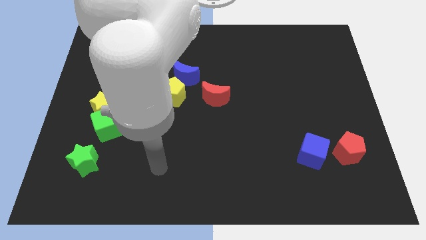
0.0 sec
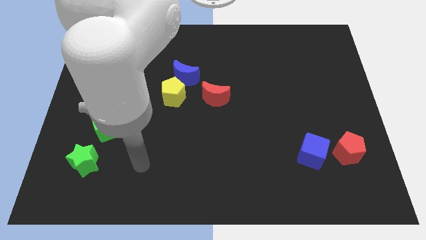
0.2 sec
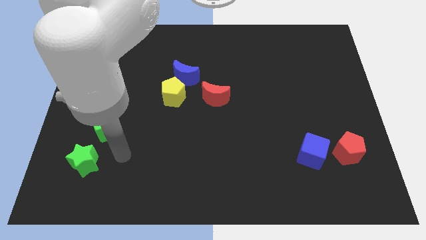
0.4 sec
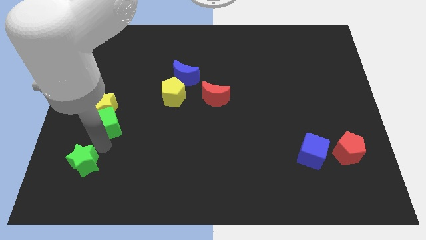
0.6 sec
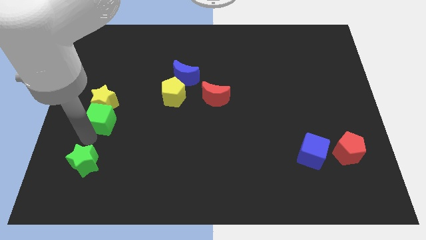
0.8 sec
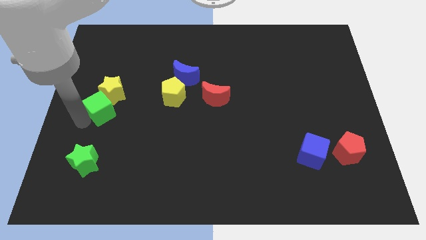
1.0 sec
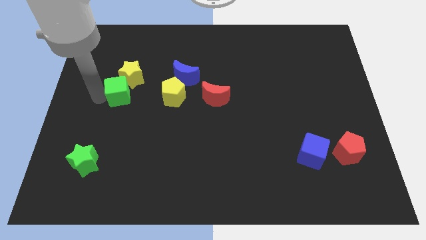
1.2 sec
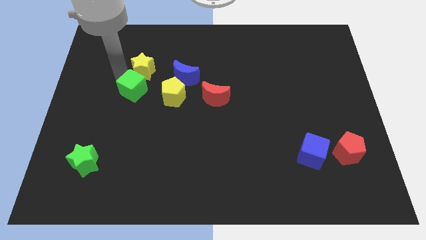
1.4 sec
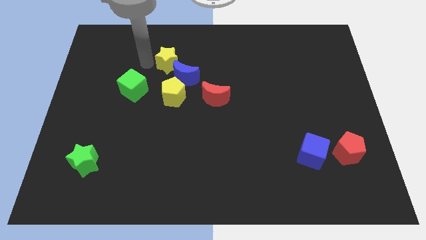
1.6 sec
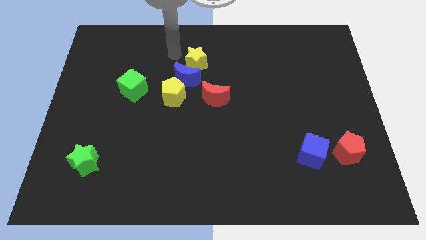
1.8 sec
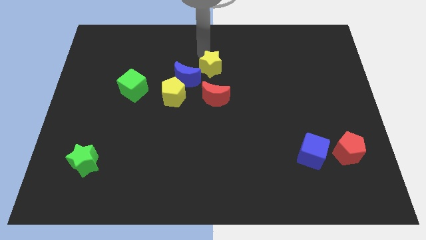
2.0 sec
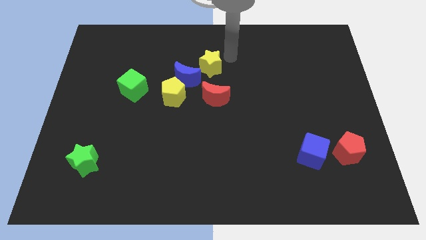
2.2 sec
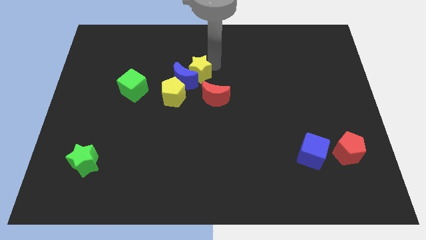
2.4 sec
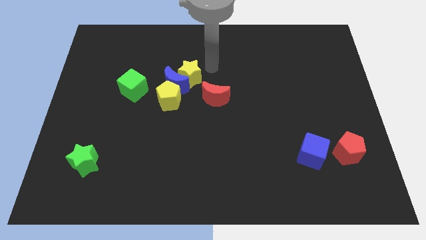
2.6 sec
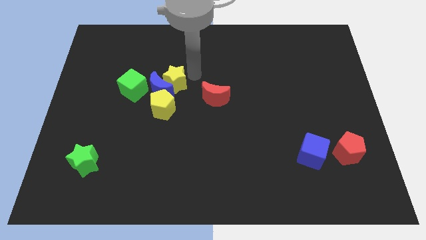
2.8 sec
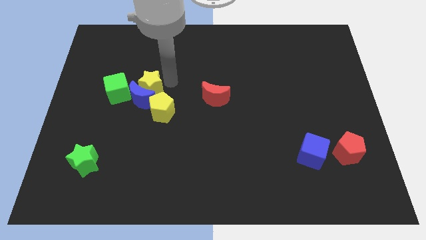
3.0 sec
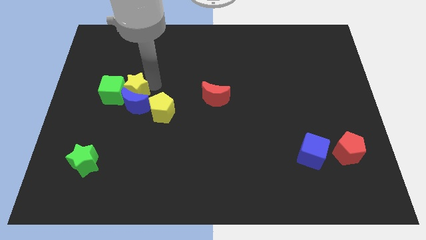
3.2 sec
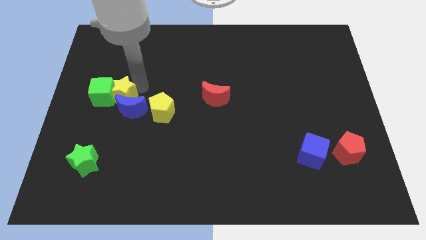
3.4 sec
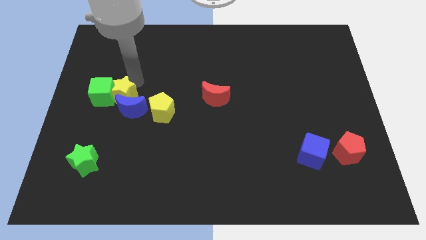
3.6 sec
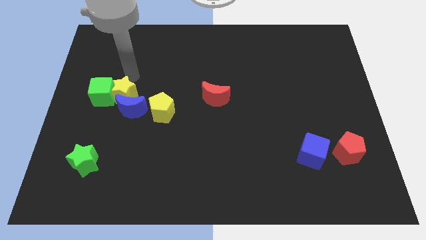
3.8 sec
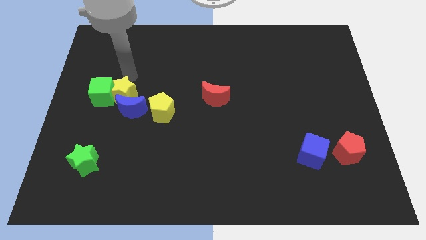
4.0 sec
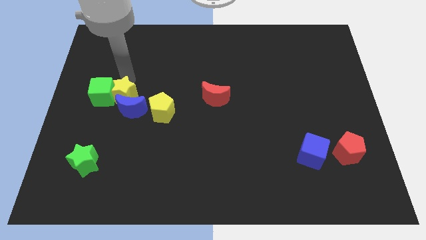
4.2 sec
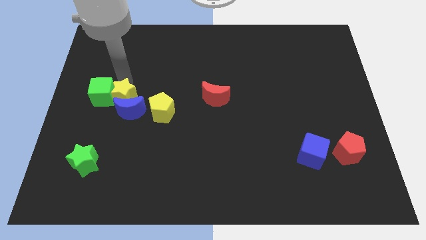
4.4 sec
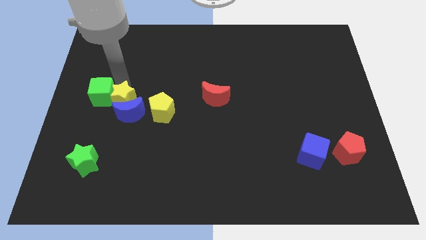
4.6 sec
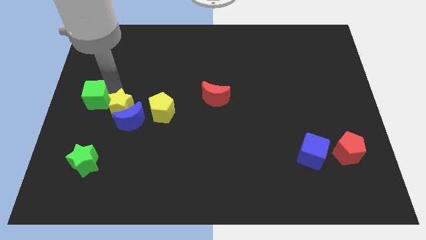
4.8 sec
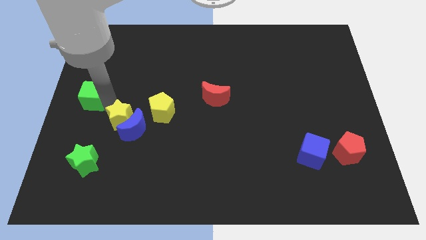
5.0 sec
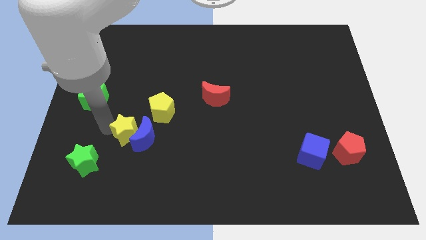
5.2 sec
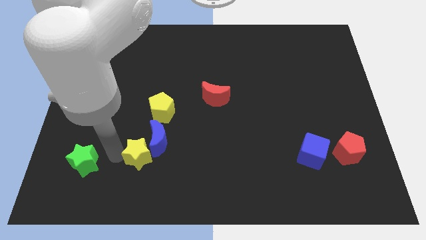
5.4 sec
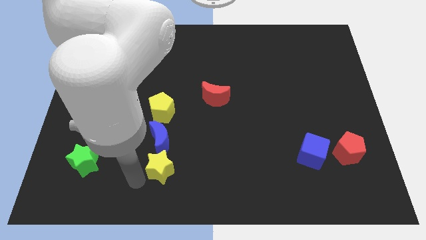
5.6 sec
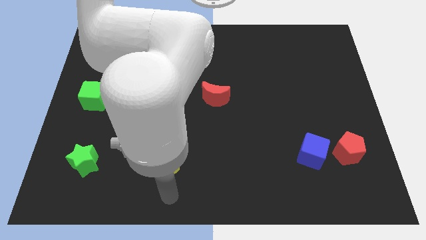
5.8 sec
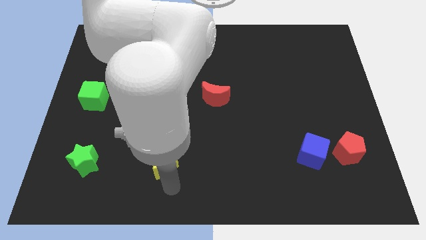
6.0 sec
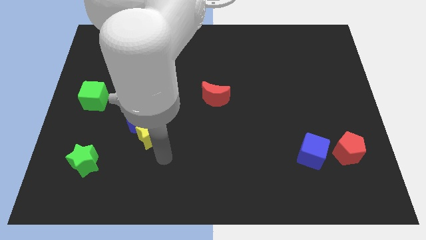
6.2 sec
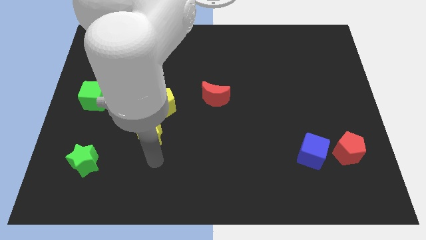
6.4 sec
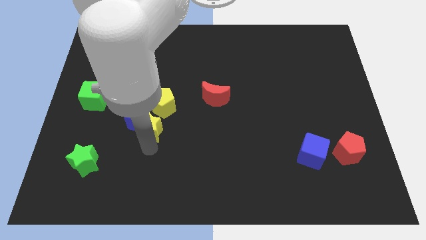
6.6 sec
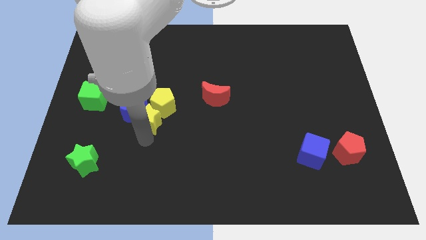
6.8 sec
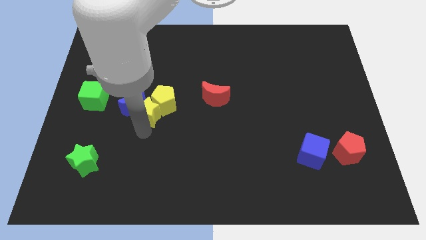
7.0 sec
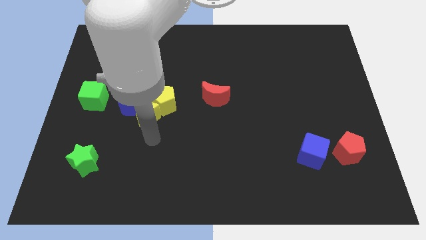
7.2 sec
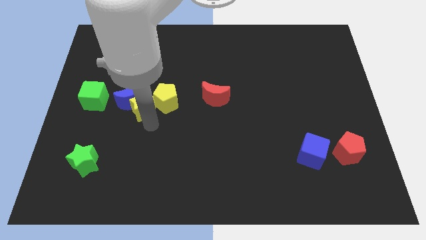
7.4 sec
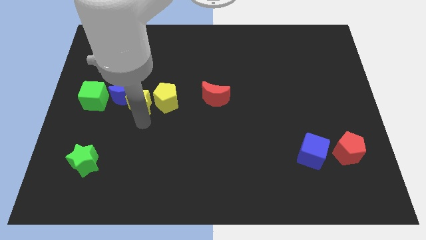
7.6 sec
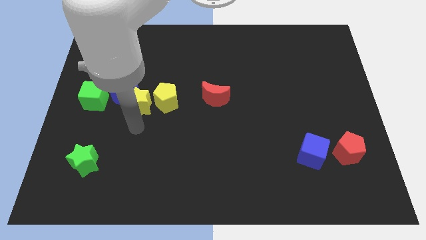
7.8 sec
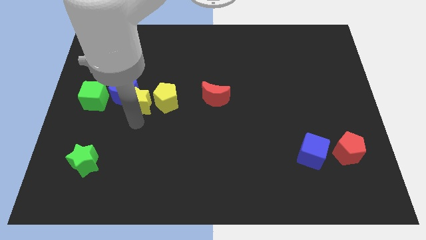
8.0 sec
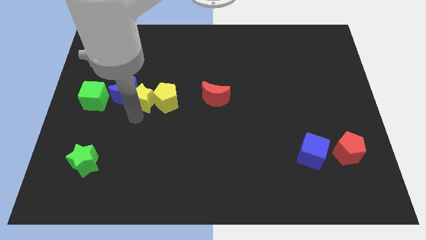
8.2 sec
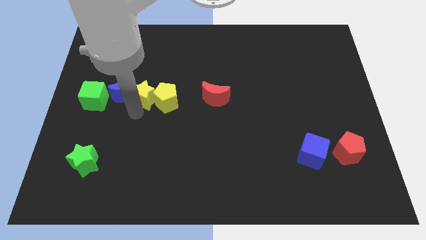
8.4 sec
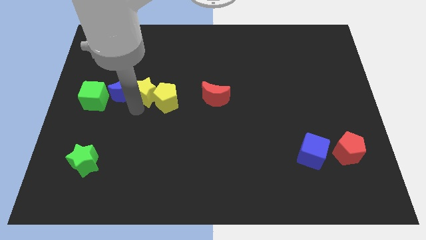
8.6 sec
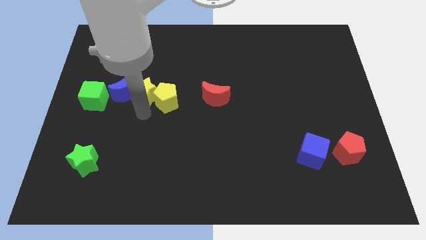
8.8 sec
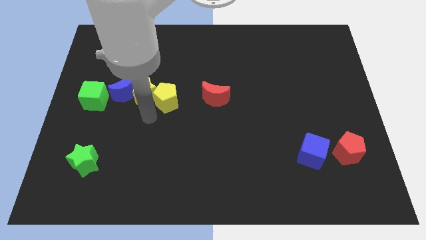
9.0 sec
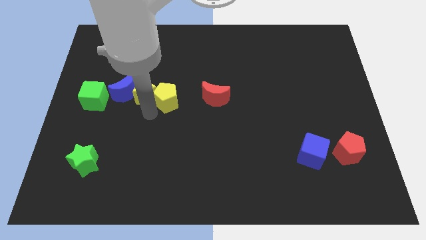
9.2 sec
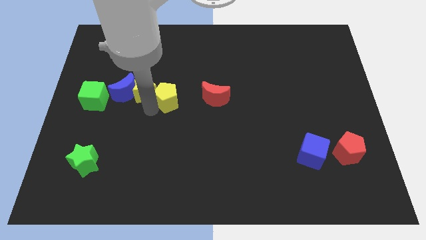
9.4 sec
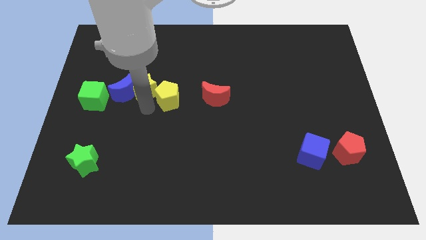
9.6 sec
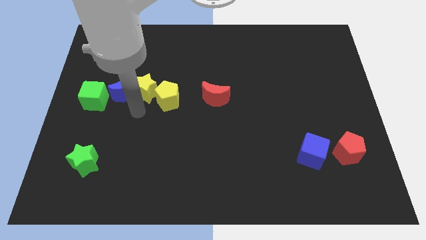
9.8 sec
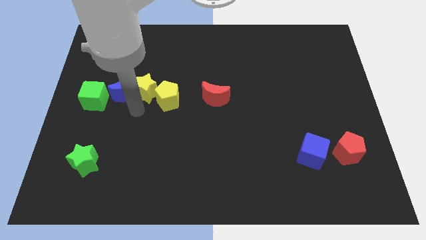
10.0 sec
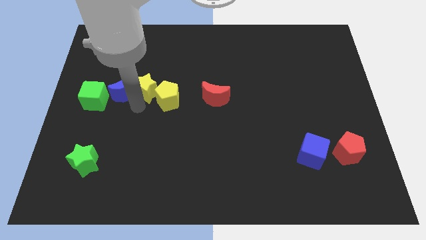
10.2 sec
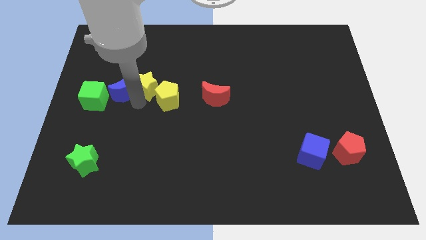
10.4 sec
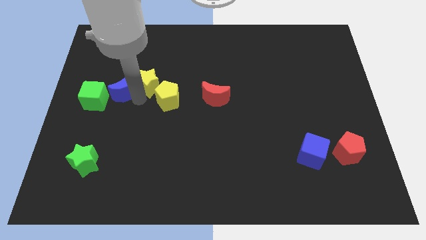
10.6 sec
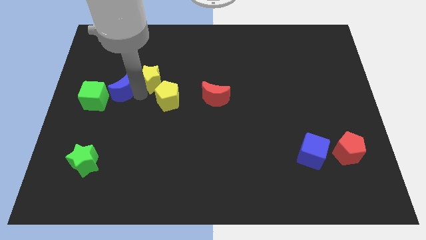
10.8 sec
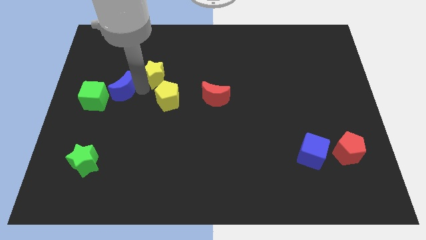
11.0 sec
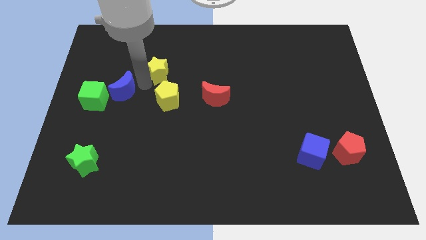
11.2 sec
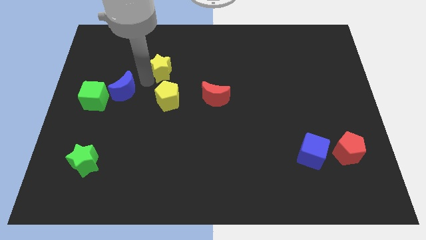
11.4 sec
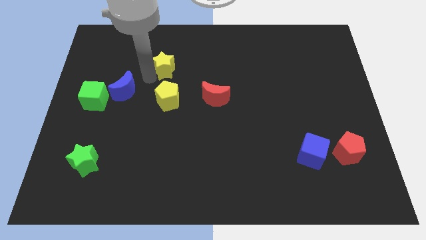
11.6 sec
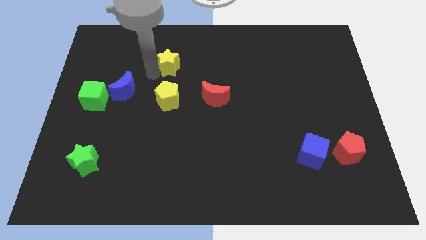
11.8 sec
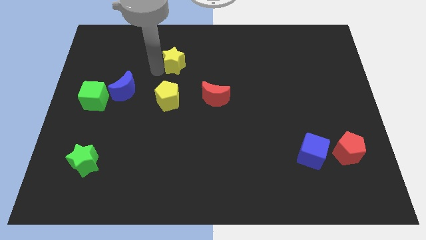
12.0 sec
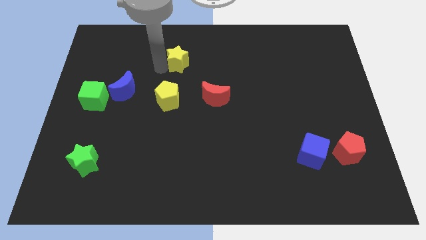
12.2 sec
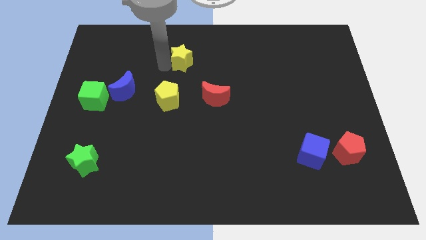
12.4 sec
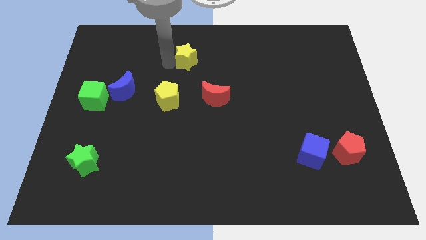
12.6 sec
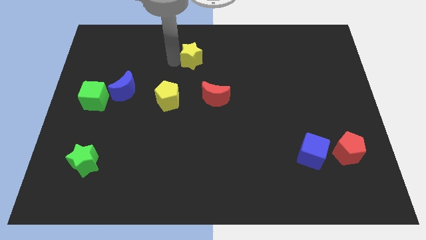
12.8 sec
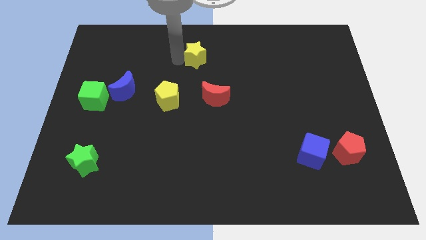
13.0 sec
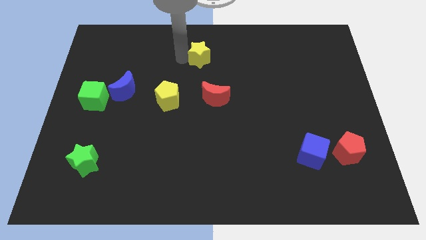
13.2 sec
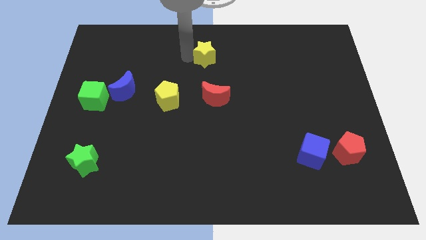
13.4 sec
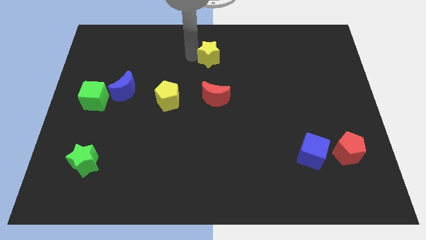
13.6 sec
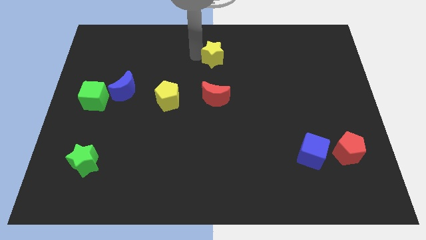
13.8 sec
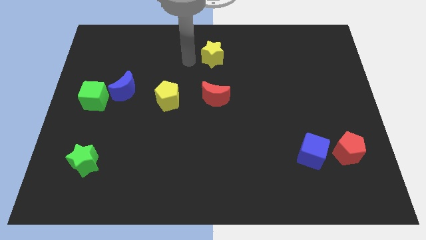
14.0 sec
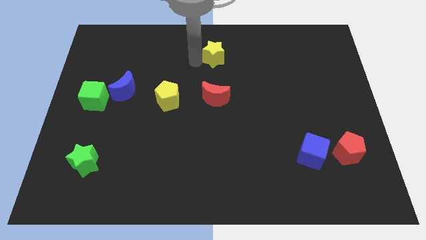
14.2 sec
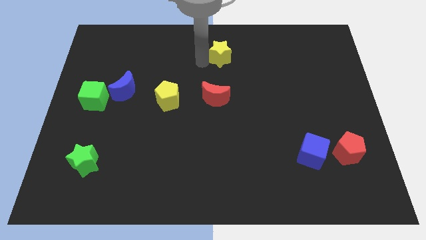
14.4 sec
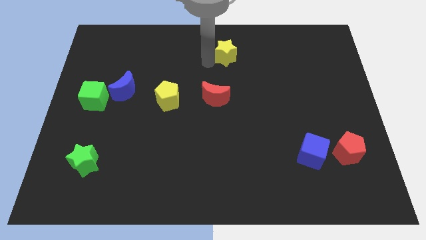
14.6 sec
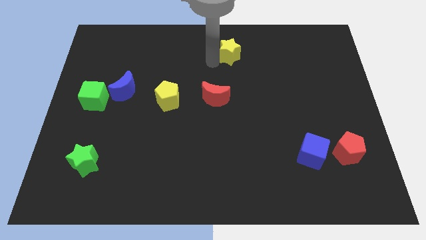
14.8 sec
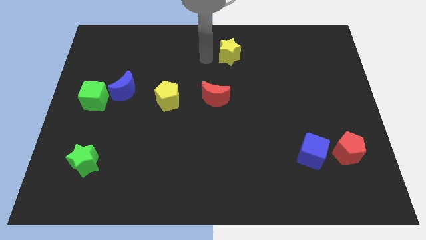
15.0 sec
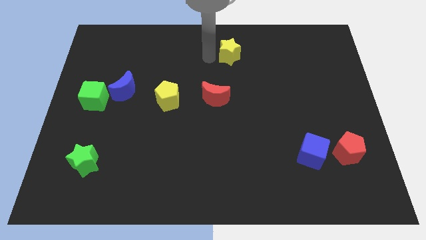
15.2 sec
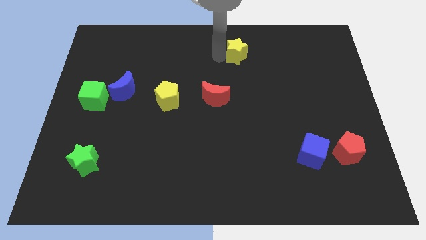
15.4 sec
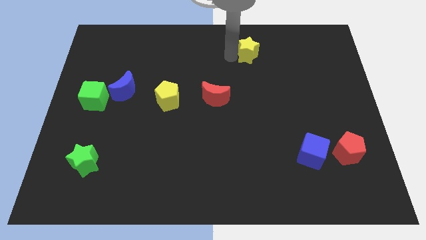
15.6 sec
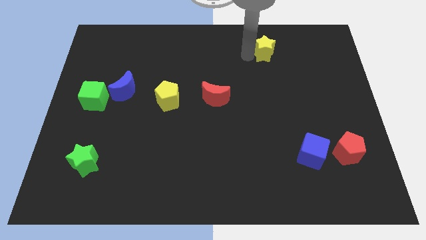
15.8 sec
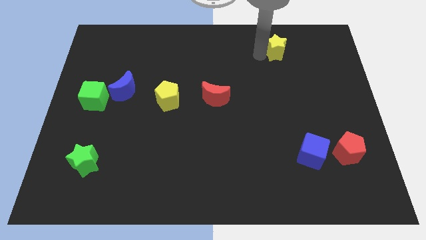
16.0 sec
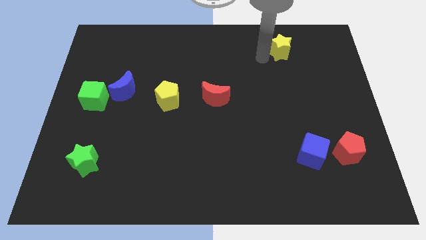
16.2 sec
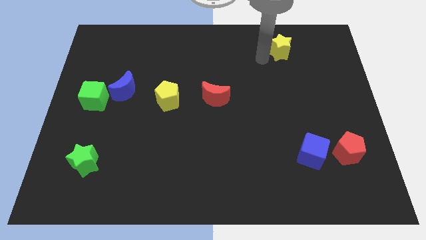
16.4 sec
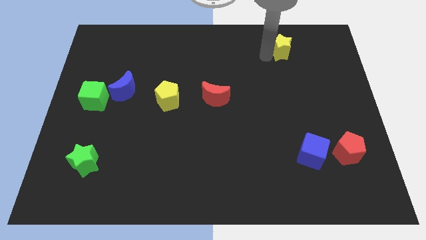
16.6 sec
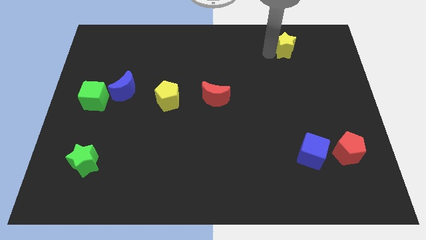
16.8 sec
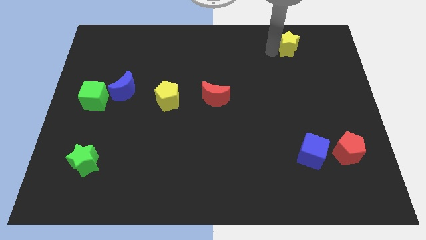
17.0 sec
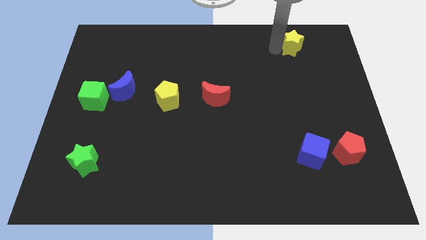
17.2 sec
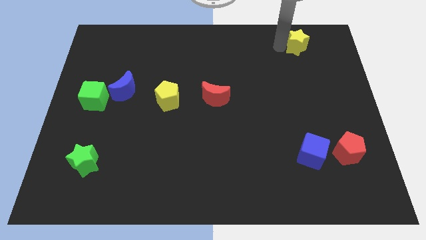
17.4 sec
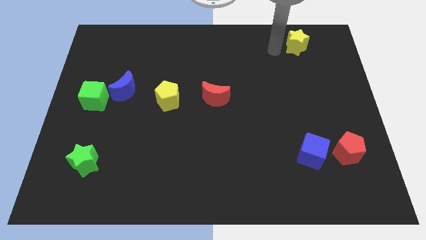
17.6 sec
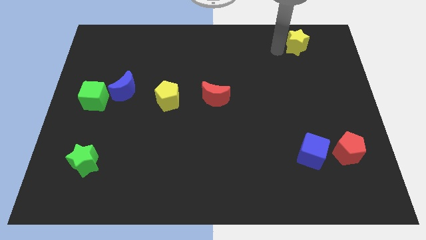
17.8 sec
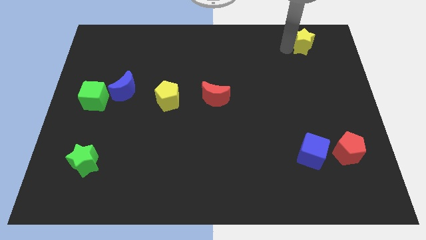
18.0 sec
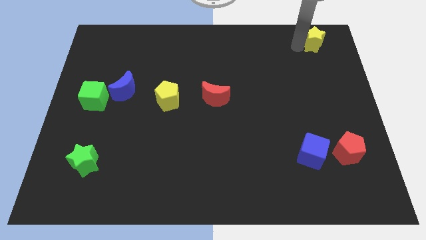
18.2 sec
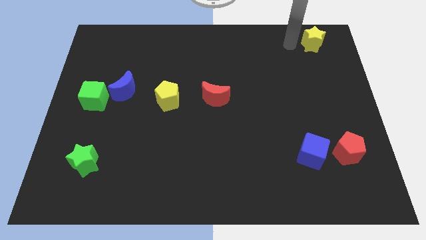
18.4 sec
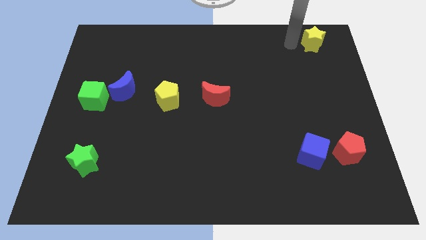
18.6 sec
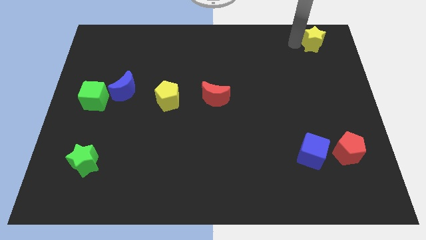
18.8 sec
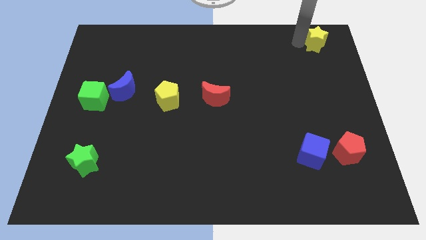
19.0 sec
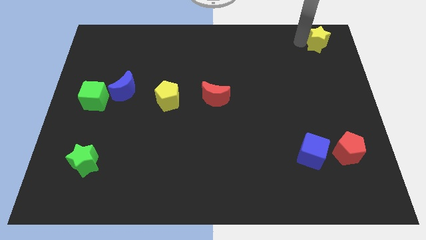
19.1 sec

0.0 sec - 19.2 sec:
put the yellow star to the top right
